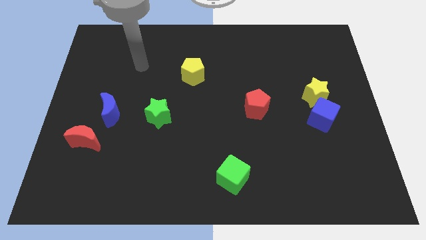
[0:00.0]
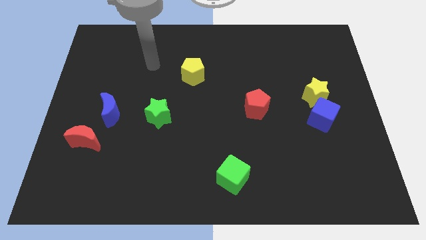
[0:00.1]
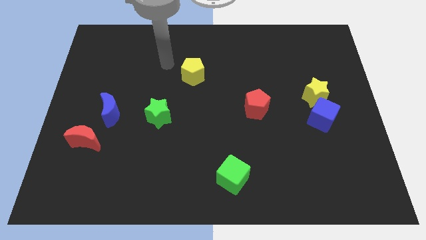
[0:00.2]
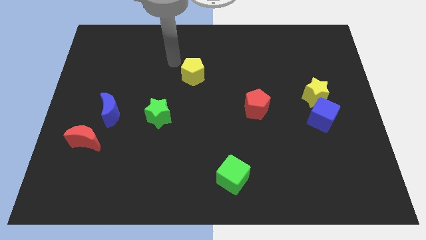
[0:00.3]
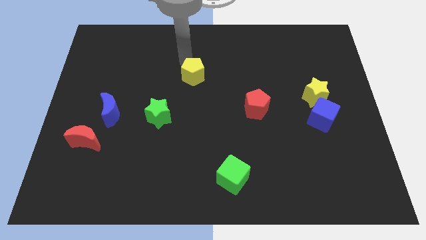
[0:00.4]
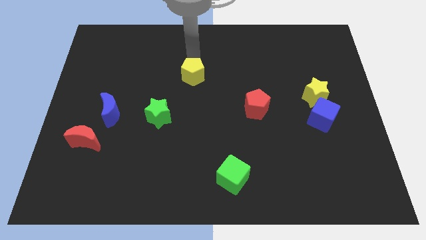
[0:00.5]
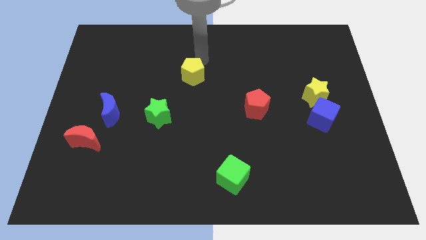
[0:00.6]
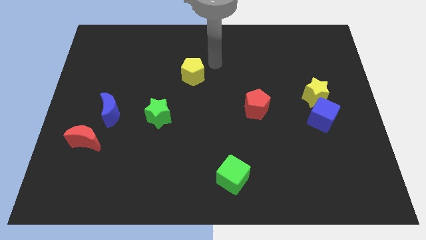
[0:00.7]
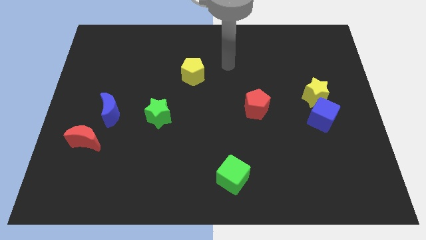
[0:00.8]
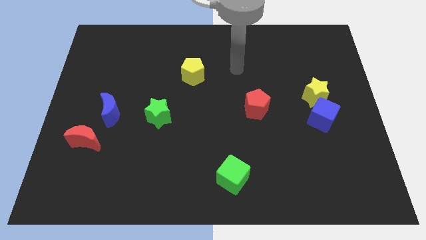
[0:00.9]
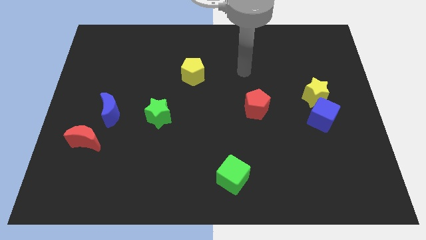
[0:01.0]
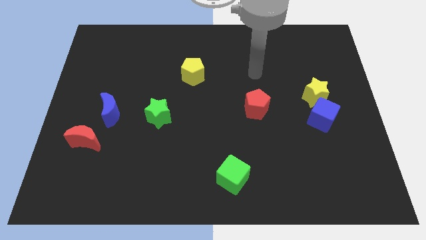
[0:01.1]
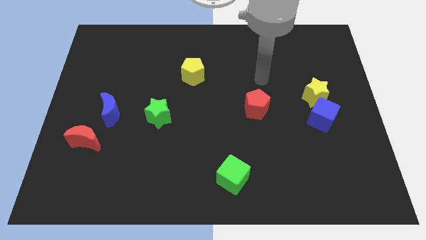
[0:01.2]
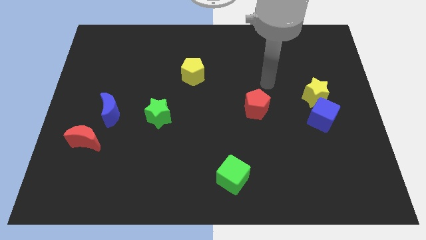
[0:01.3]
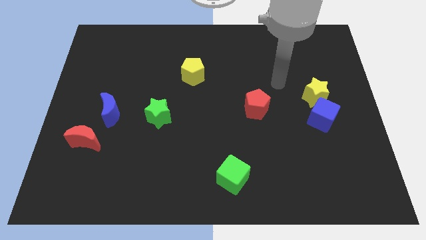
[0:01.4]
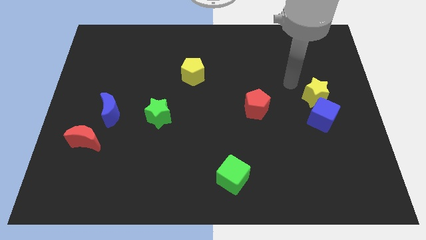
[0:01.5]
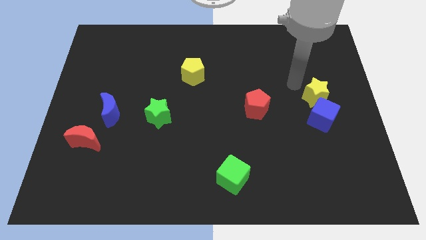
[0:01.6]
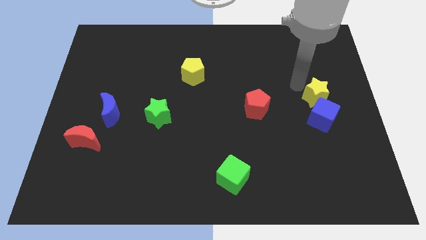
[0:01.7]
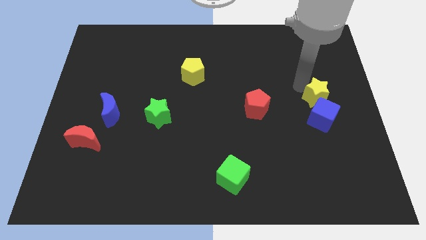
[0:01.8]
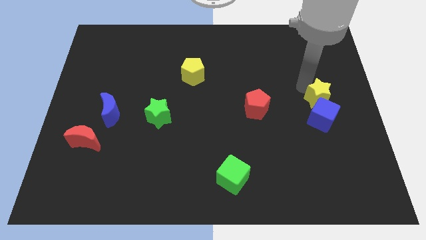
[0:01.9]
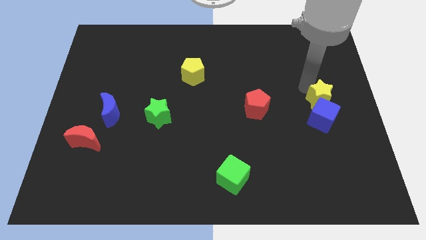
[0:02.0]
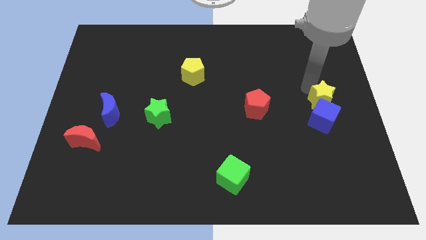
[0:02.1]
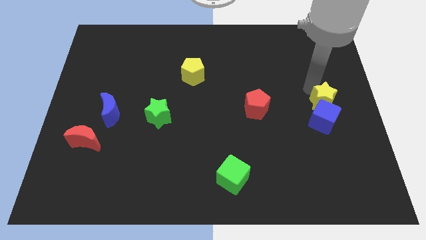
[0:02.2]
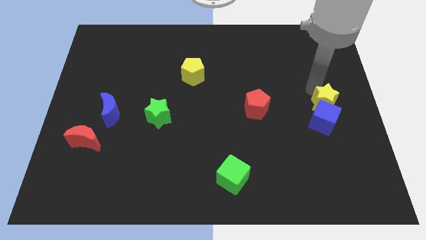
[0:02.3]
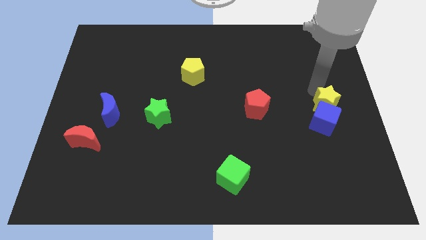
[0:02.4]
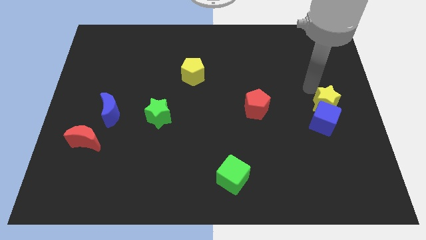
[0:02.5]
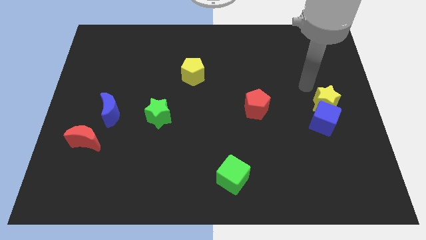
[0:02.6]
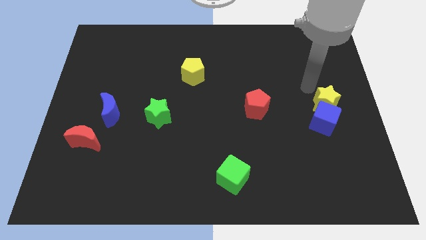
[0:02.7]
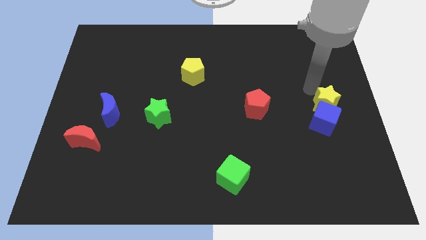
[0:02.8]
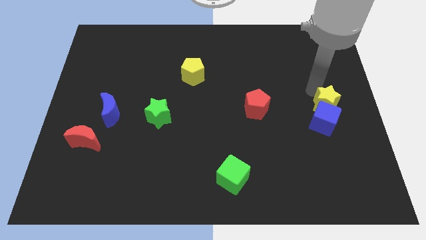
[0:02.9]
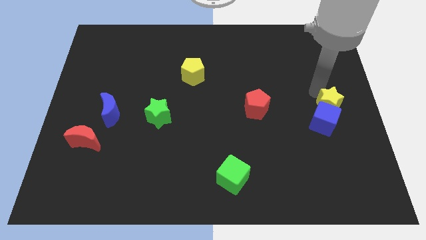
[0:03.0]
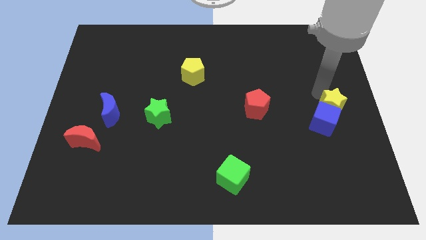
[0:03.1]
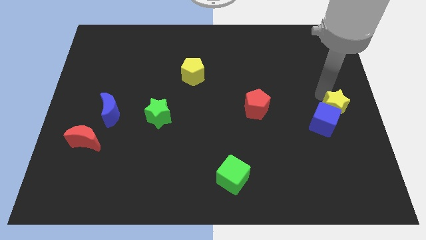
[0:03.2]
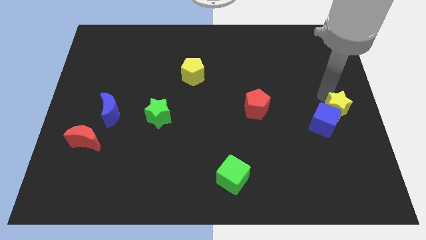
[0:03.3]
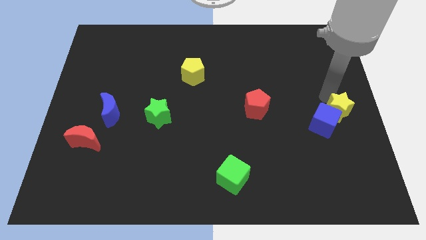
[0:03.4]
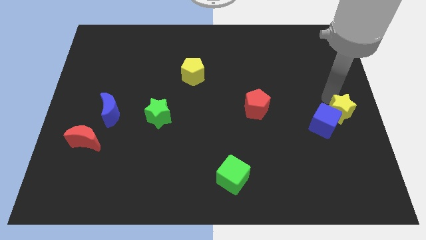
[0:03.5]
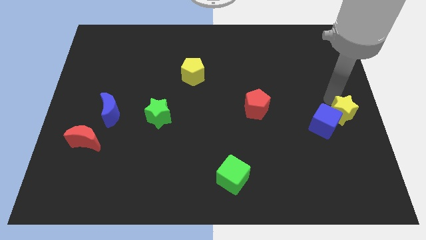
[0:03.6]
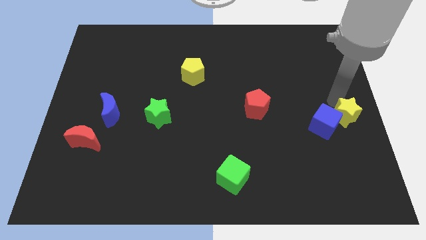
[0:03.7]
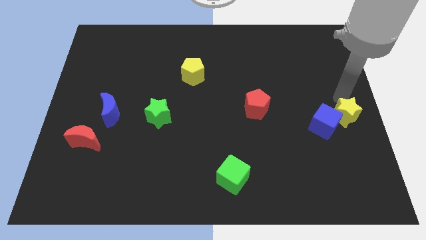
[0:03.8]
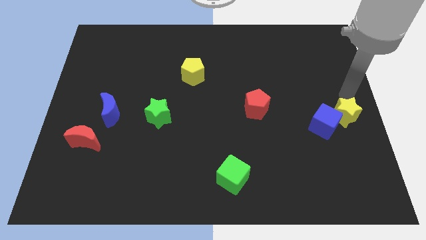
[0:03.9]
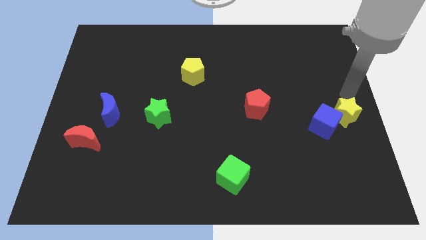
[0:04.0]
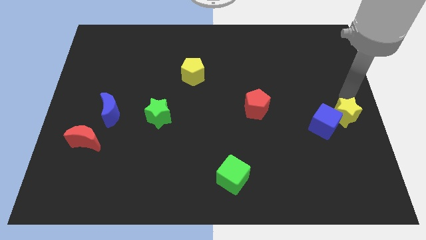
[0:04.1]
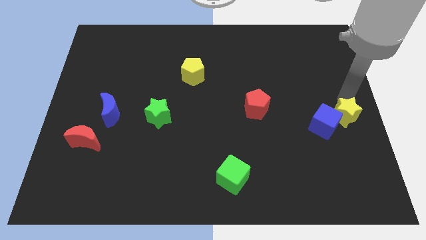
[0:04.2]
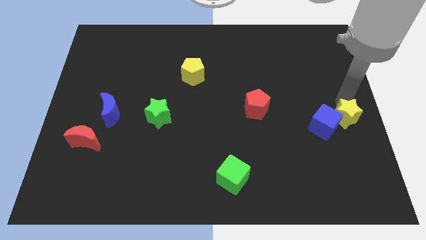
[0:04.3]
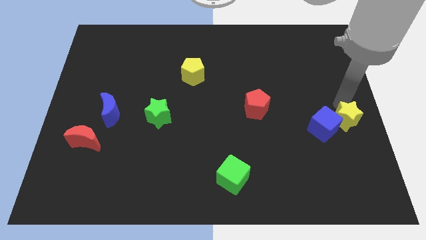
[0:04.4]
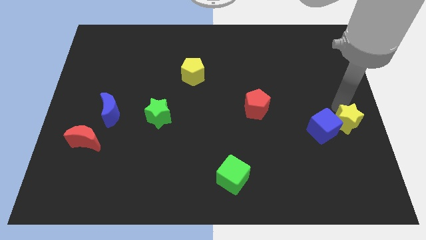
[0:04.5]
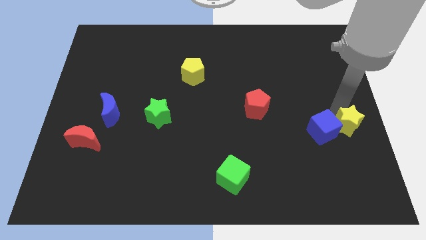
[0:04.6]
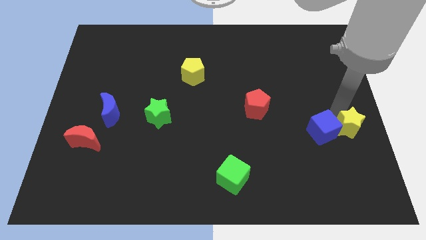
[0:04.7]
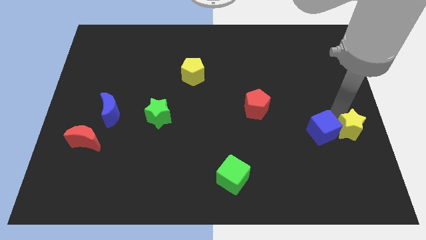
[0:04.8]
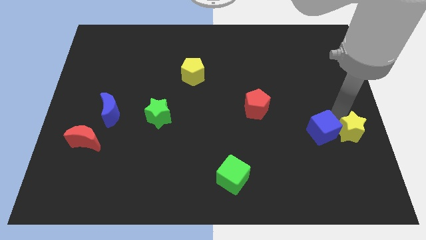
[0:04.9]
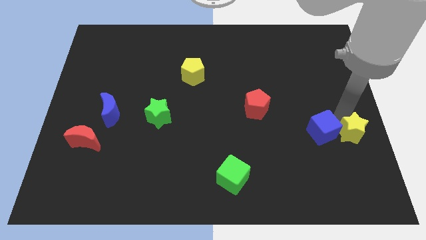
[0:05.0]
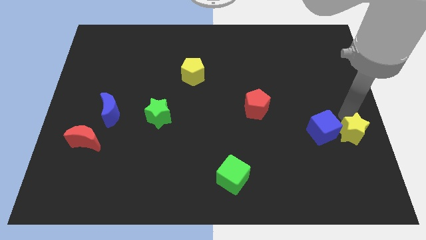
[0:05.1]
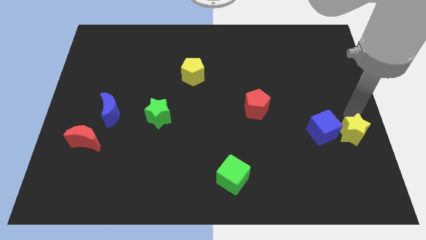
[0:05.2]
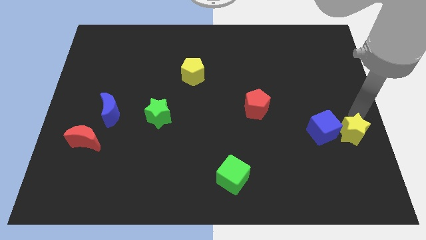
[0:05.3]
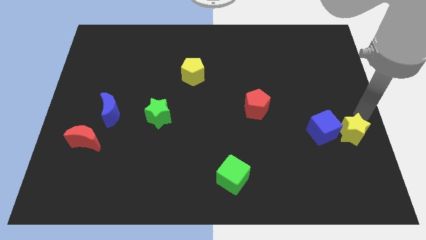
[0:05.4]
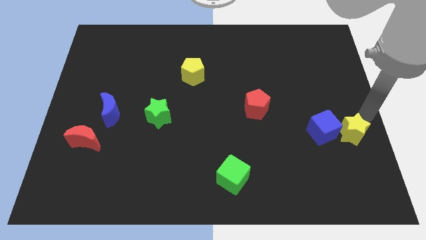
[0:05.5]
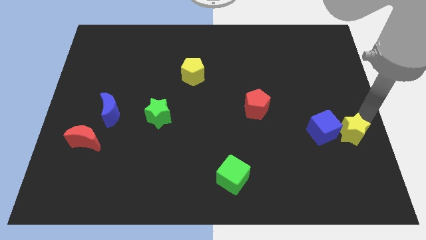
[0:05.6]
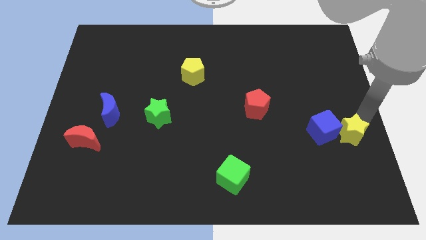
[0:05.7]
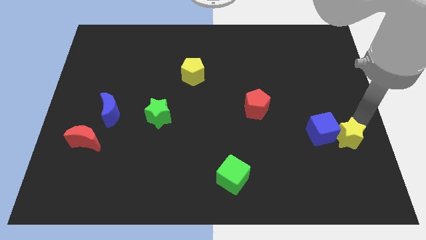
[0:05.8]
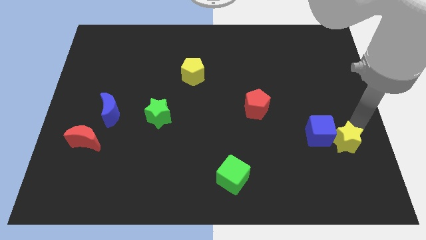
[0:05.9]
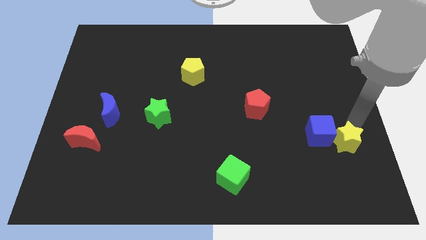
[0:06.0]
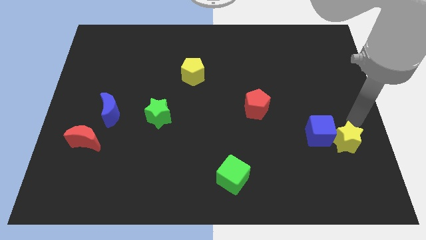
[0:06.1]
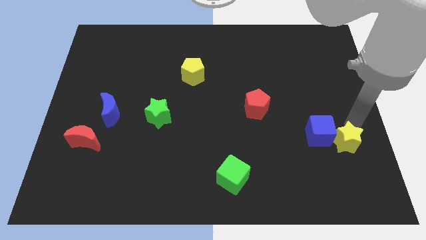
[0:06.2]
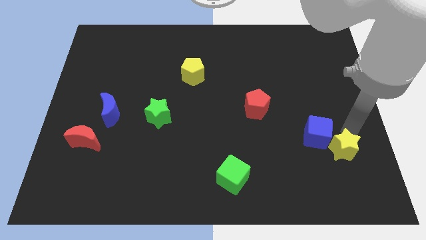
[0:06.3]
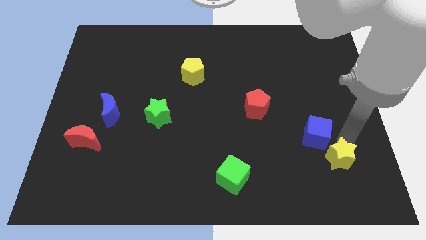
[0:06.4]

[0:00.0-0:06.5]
put the yellow star below the blue cube

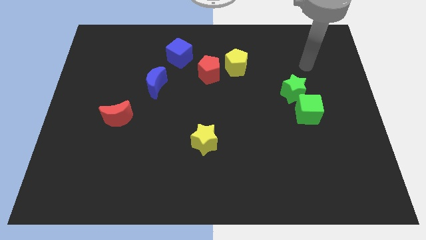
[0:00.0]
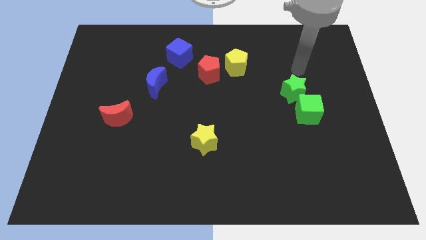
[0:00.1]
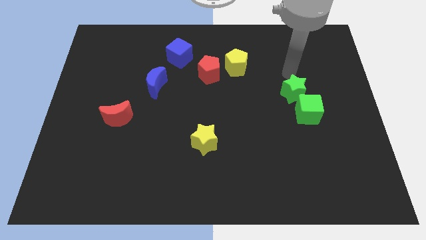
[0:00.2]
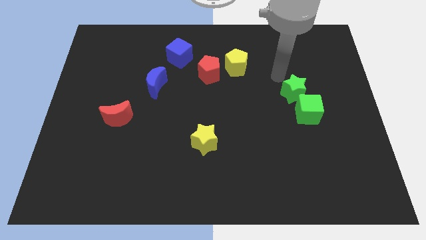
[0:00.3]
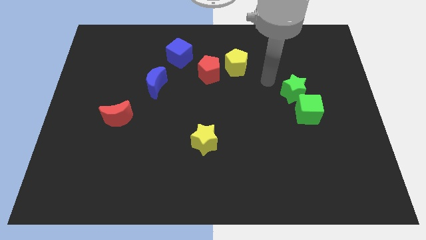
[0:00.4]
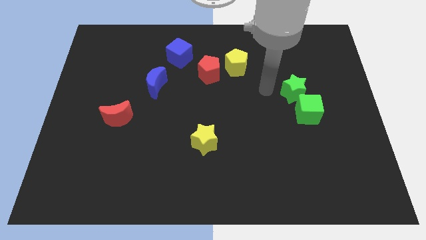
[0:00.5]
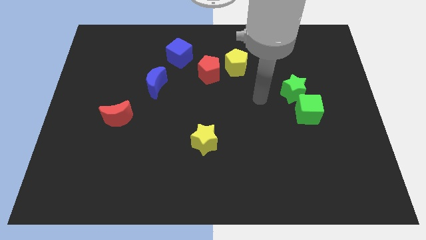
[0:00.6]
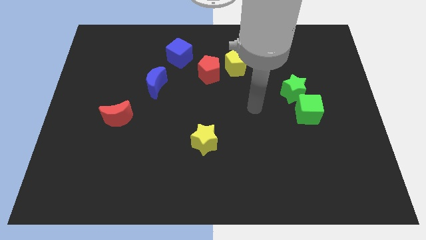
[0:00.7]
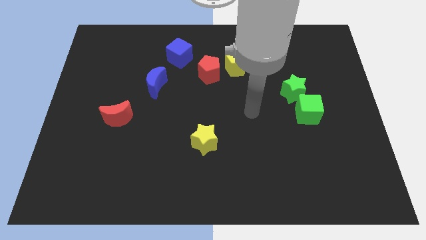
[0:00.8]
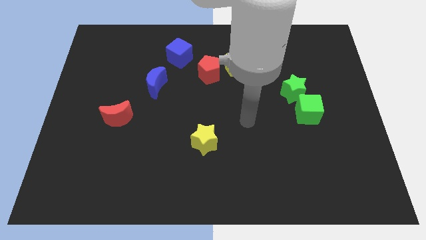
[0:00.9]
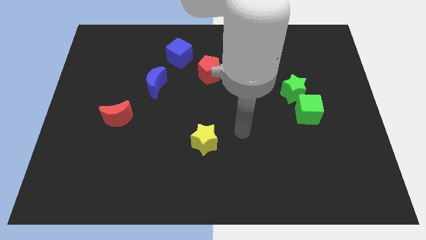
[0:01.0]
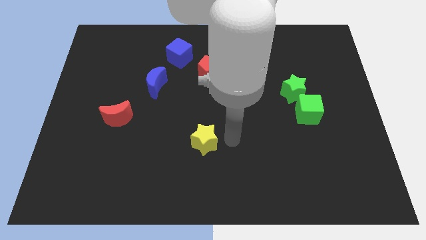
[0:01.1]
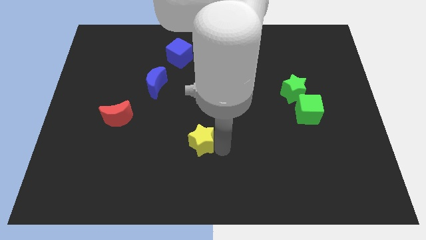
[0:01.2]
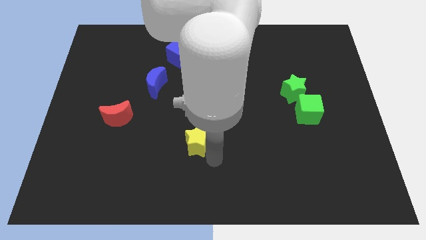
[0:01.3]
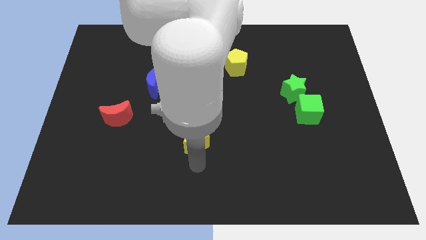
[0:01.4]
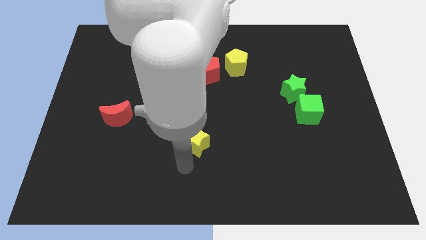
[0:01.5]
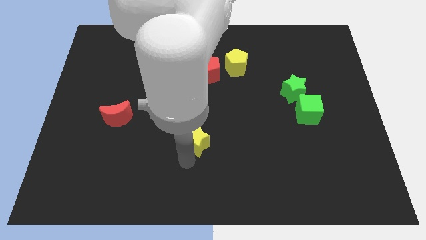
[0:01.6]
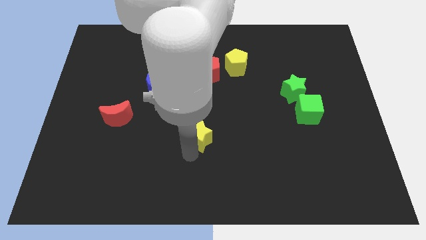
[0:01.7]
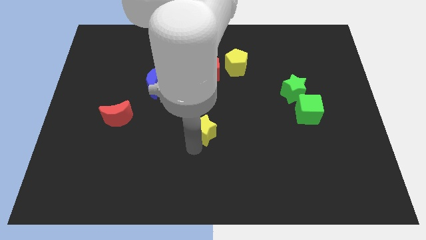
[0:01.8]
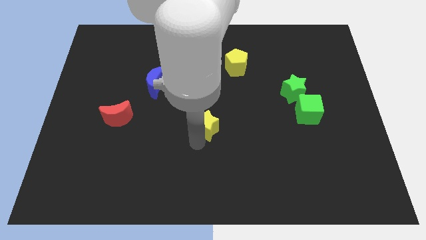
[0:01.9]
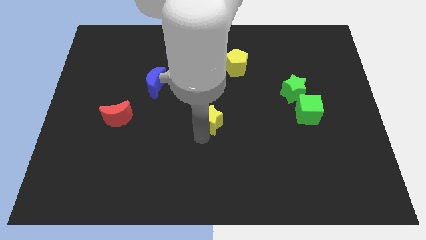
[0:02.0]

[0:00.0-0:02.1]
slide the yellow star to the bottom side of the red pentagon
